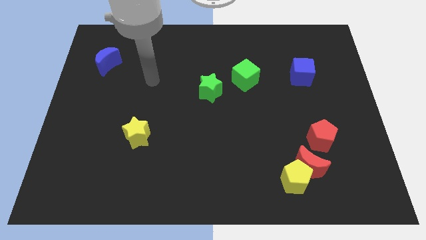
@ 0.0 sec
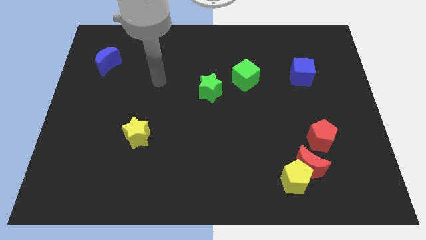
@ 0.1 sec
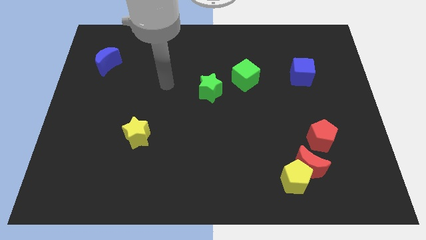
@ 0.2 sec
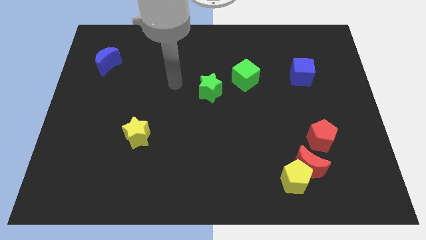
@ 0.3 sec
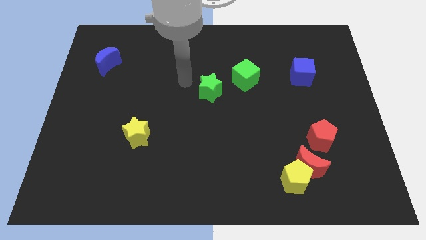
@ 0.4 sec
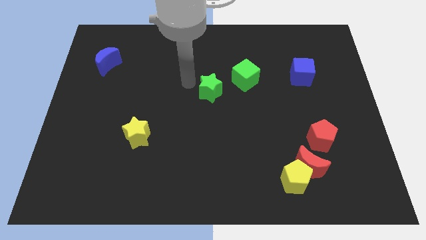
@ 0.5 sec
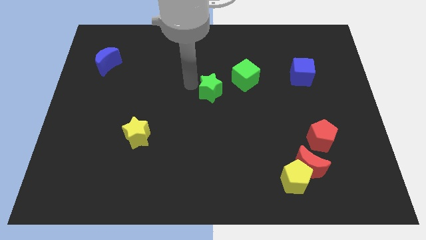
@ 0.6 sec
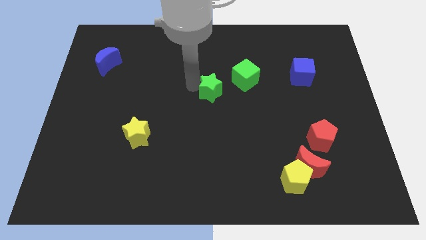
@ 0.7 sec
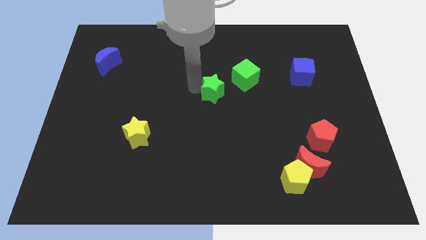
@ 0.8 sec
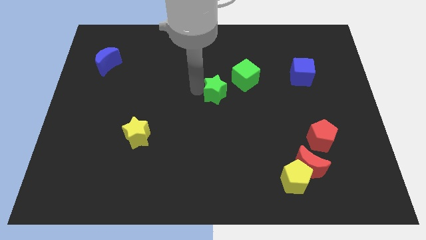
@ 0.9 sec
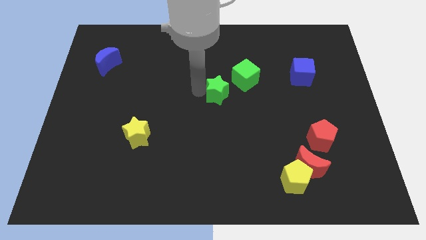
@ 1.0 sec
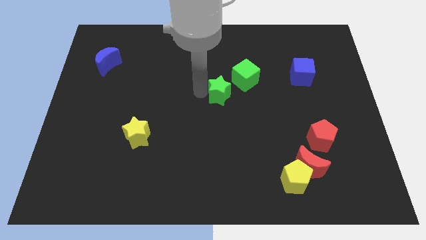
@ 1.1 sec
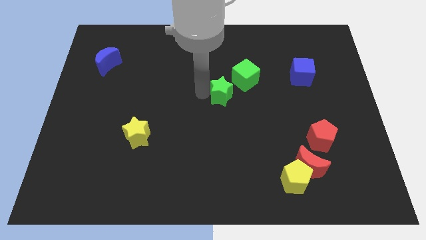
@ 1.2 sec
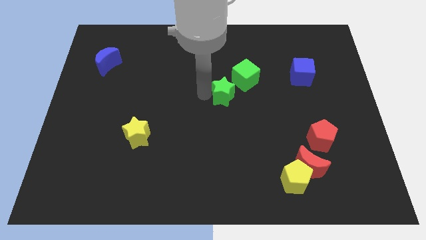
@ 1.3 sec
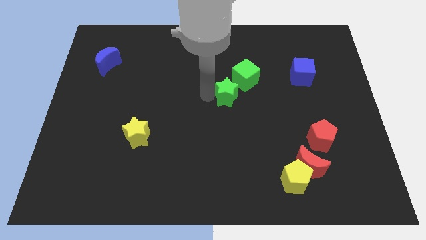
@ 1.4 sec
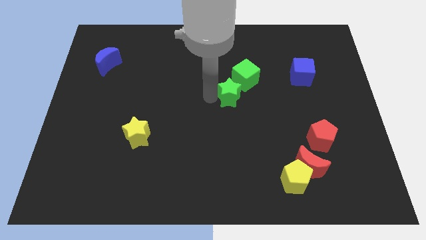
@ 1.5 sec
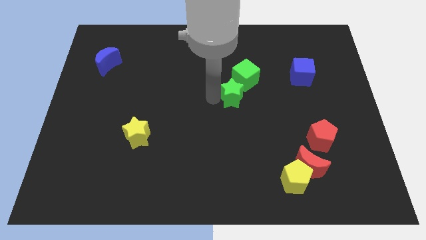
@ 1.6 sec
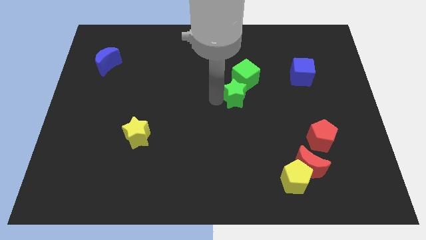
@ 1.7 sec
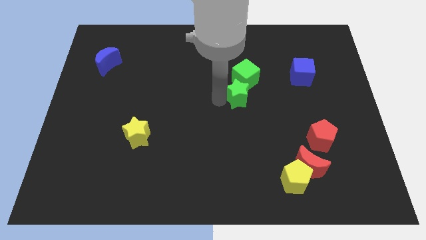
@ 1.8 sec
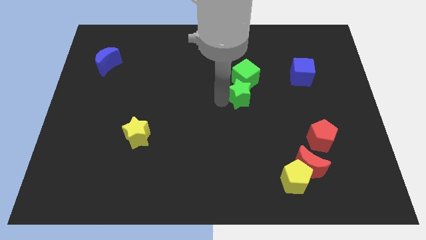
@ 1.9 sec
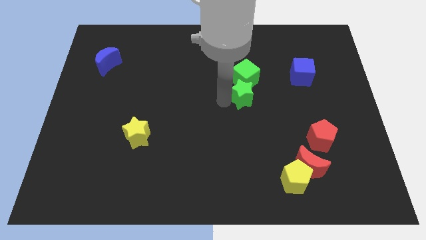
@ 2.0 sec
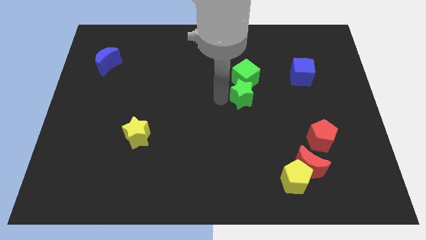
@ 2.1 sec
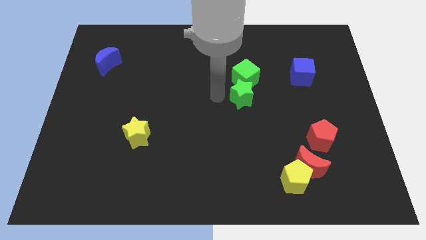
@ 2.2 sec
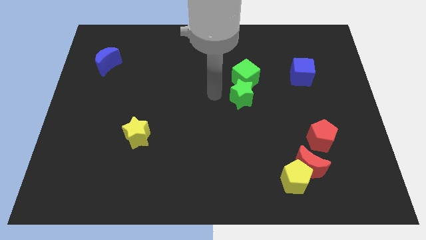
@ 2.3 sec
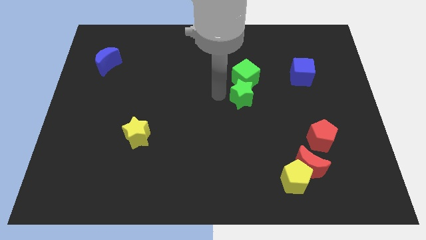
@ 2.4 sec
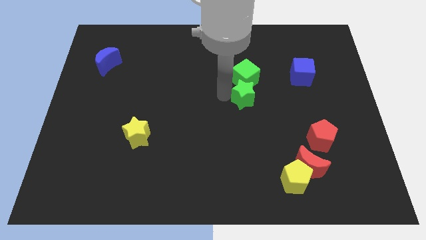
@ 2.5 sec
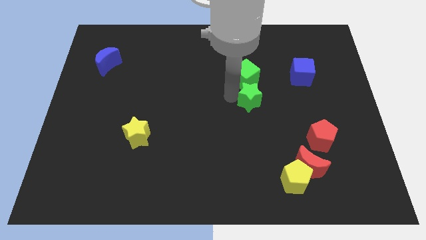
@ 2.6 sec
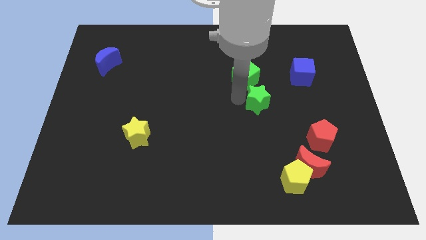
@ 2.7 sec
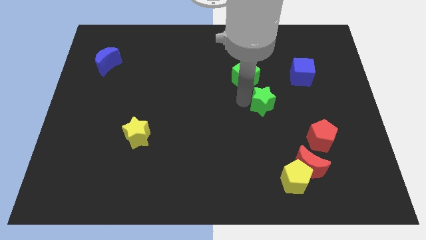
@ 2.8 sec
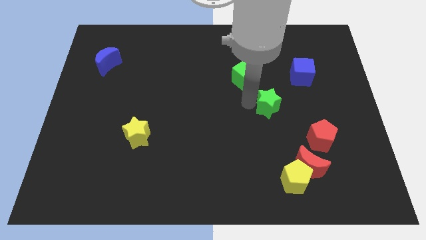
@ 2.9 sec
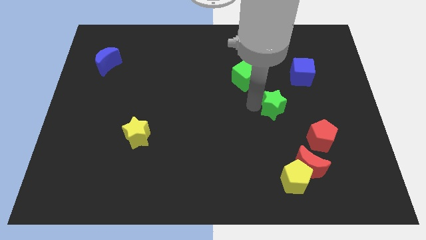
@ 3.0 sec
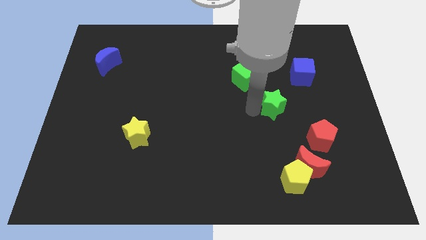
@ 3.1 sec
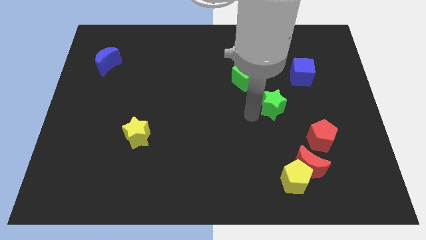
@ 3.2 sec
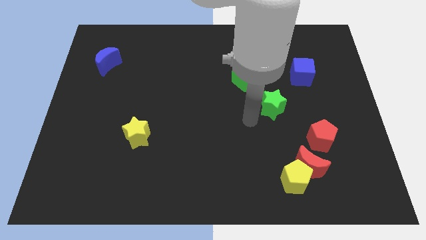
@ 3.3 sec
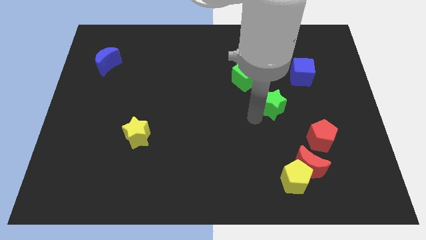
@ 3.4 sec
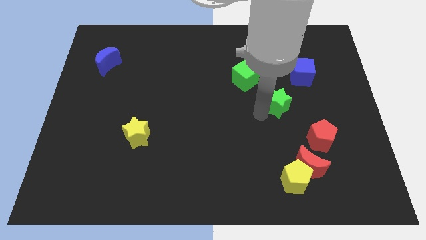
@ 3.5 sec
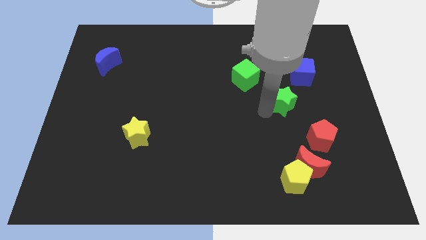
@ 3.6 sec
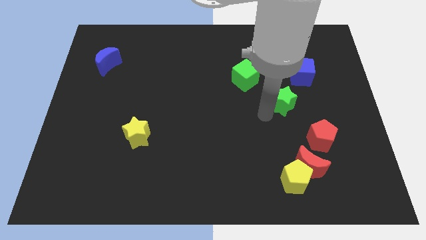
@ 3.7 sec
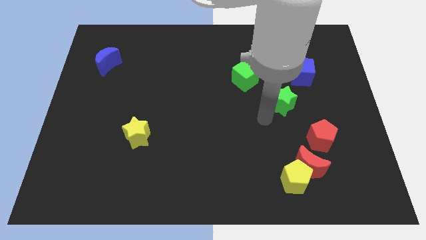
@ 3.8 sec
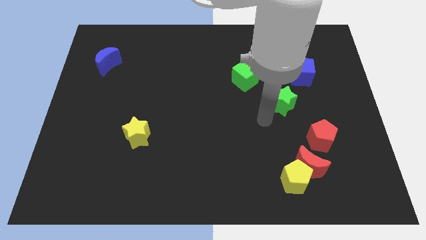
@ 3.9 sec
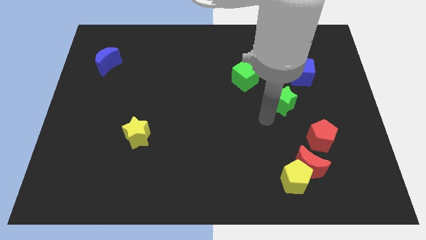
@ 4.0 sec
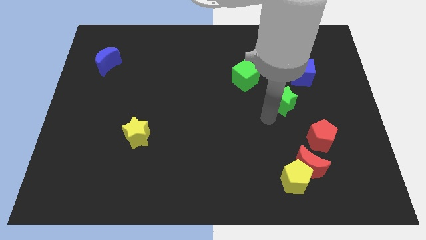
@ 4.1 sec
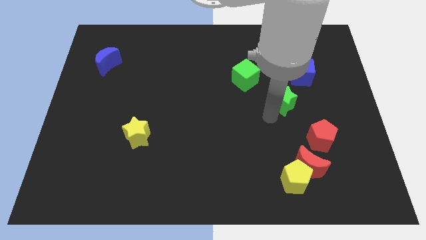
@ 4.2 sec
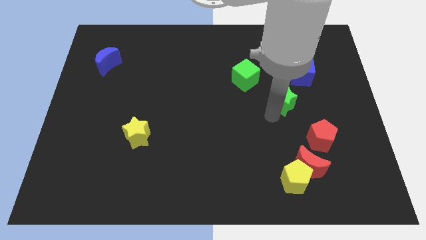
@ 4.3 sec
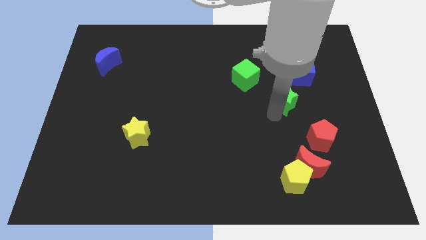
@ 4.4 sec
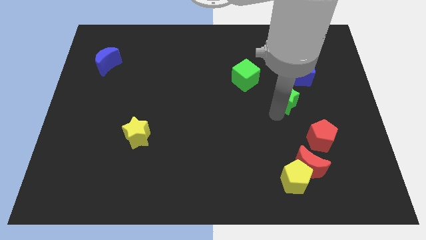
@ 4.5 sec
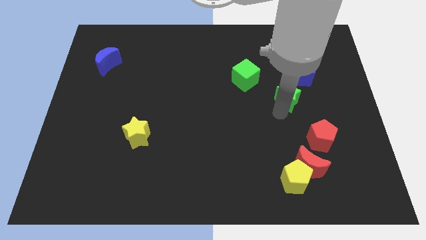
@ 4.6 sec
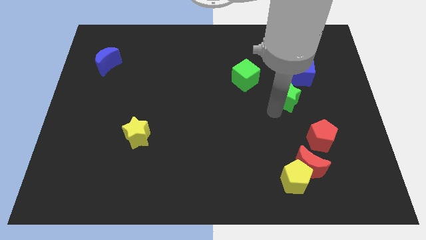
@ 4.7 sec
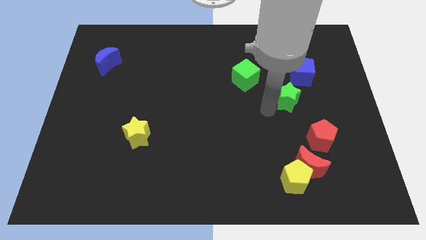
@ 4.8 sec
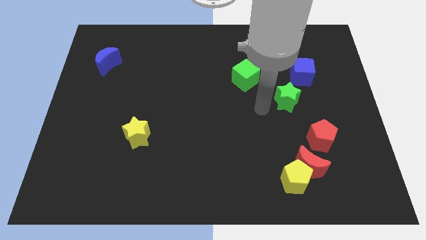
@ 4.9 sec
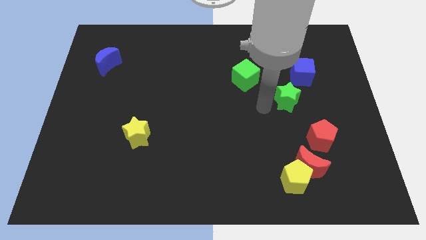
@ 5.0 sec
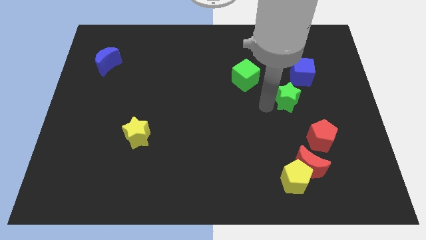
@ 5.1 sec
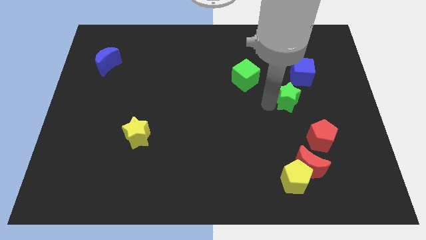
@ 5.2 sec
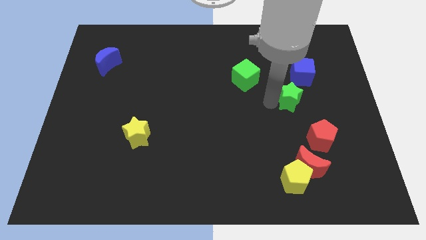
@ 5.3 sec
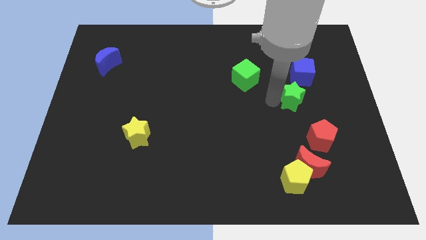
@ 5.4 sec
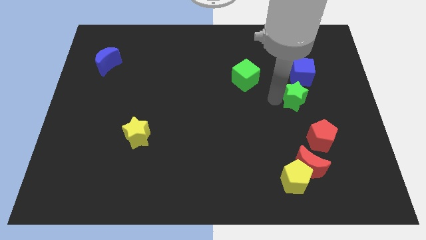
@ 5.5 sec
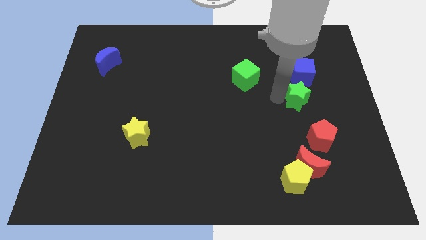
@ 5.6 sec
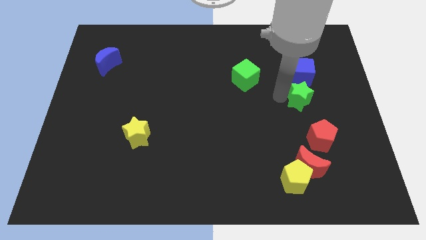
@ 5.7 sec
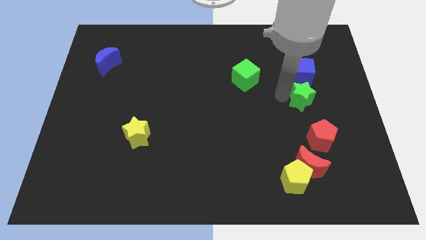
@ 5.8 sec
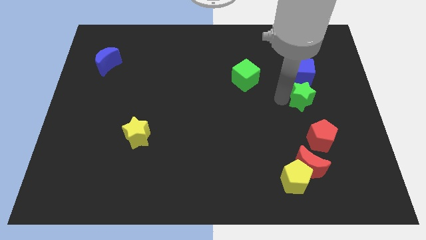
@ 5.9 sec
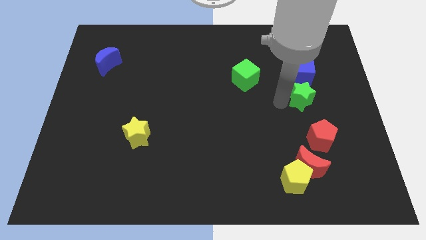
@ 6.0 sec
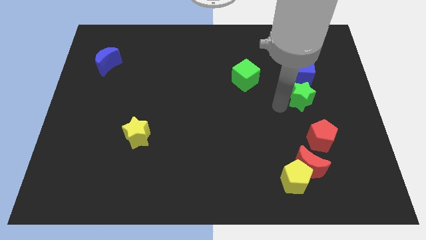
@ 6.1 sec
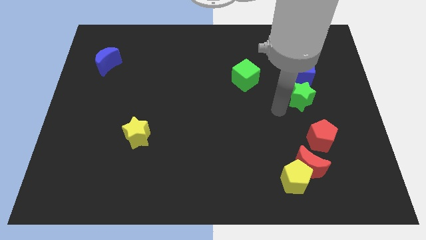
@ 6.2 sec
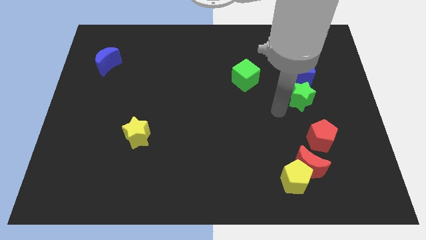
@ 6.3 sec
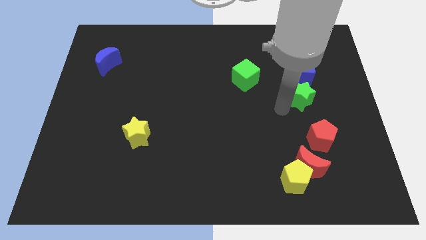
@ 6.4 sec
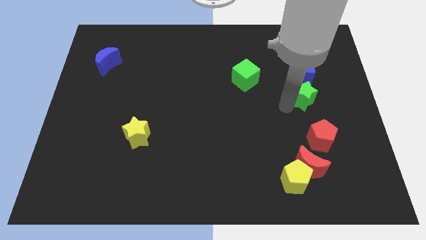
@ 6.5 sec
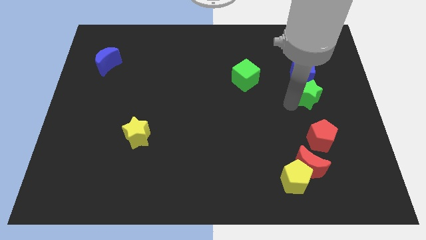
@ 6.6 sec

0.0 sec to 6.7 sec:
move the green star to the bottom right of the blue cube

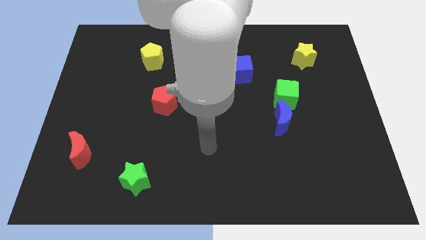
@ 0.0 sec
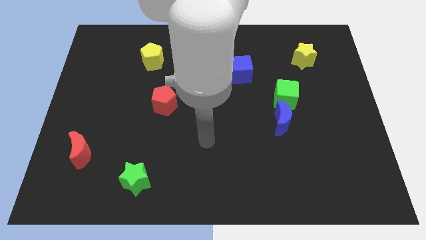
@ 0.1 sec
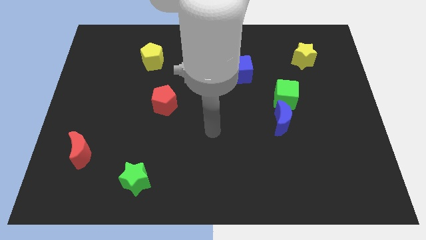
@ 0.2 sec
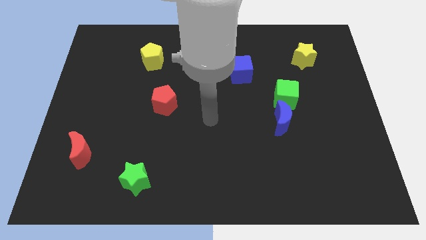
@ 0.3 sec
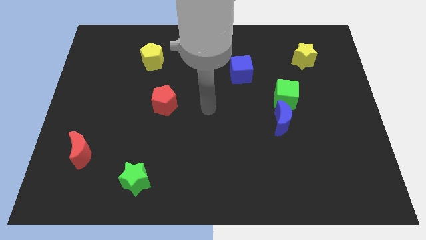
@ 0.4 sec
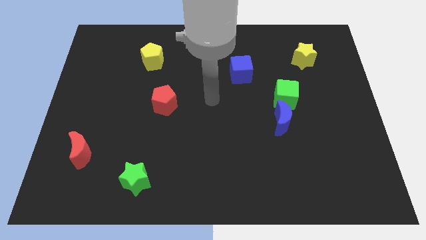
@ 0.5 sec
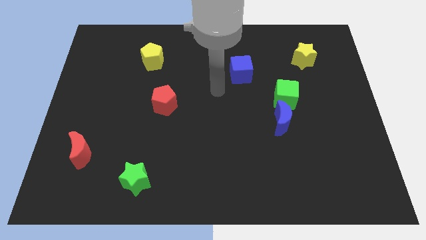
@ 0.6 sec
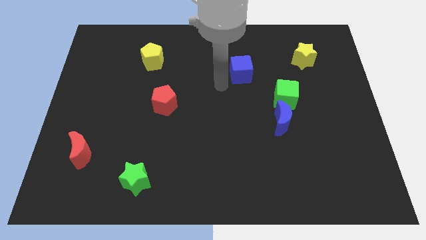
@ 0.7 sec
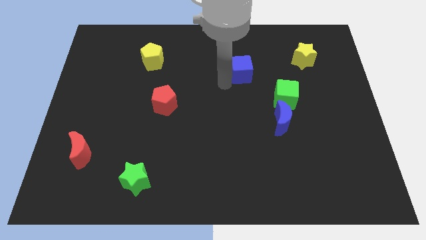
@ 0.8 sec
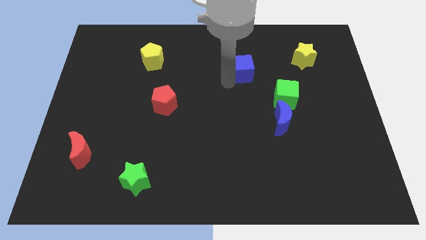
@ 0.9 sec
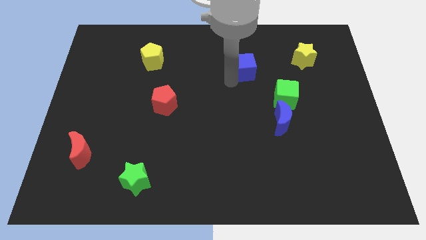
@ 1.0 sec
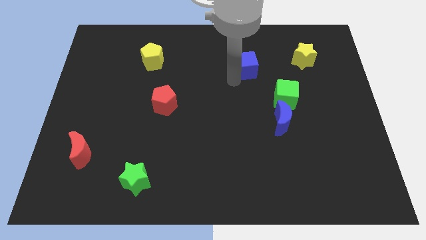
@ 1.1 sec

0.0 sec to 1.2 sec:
slide the blue cube left of the yellow star
